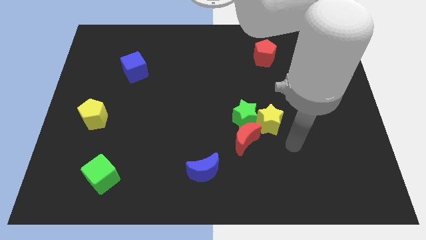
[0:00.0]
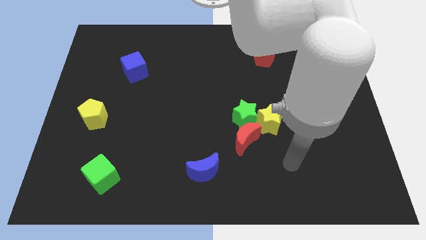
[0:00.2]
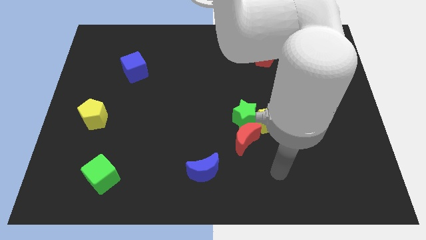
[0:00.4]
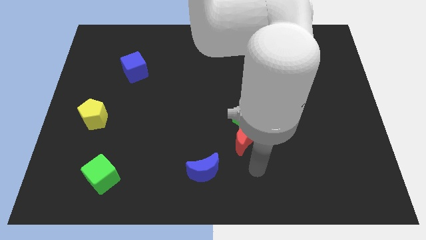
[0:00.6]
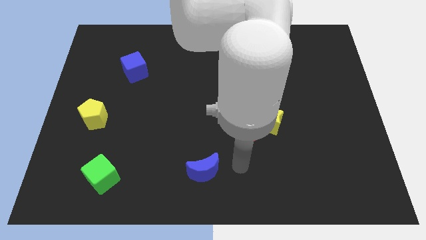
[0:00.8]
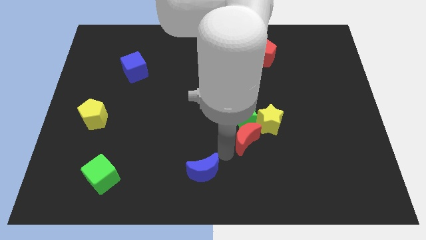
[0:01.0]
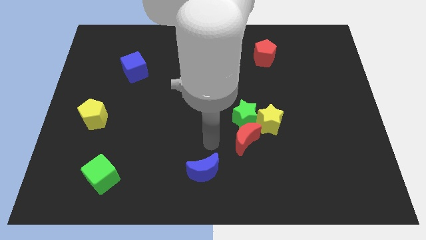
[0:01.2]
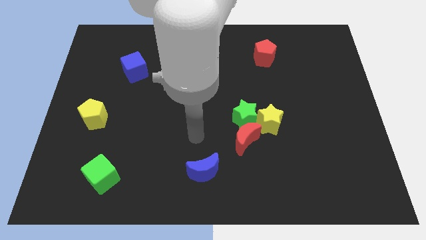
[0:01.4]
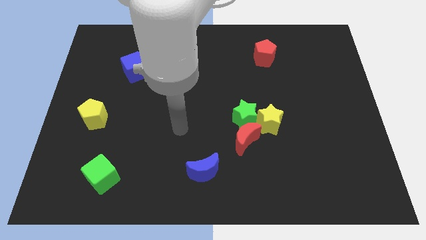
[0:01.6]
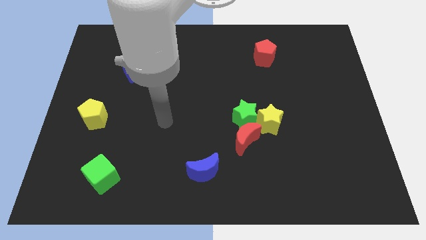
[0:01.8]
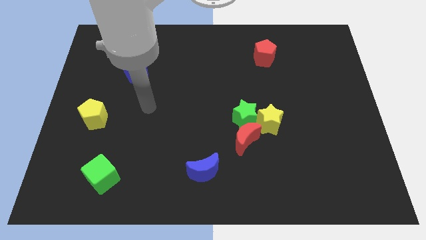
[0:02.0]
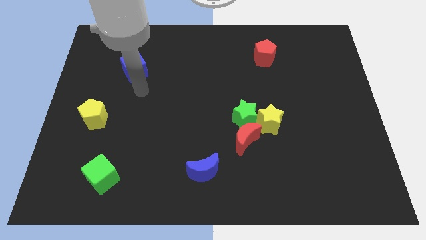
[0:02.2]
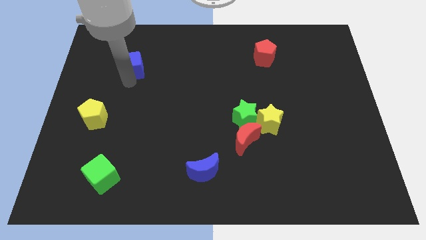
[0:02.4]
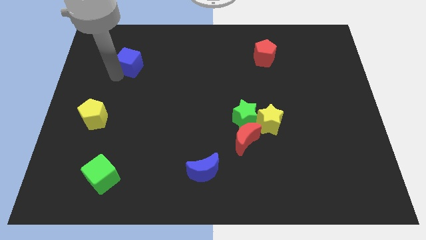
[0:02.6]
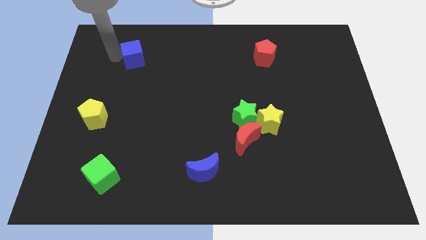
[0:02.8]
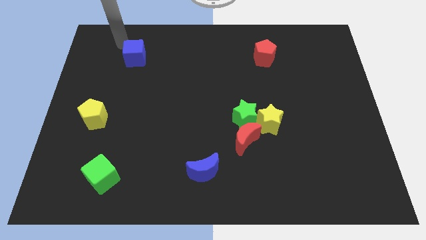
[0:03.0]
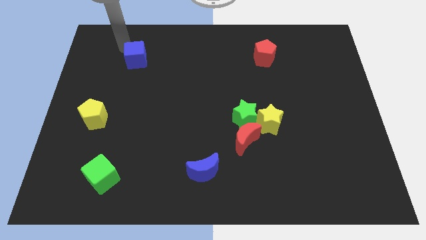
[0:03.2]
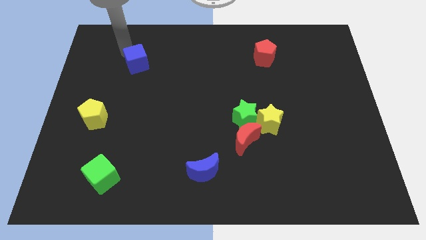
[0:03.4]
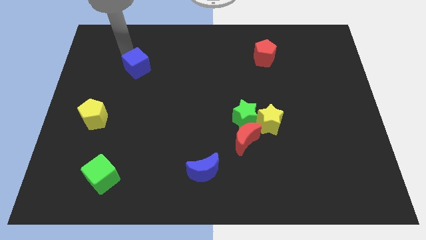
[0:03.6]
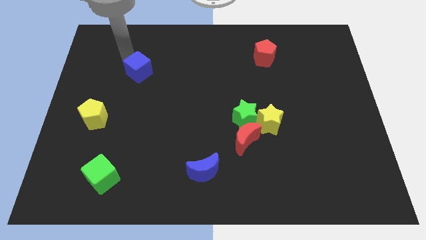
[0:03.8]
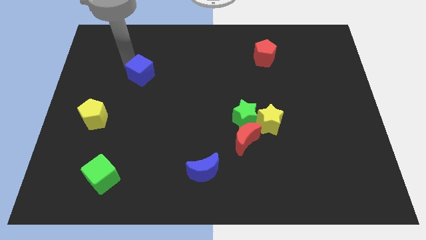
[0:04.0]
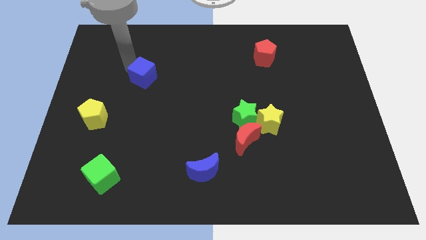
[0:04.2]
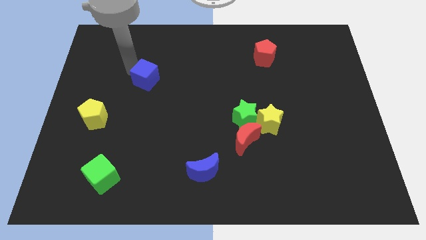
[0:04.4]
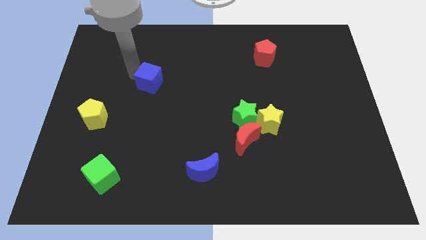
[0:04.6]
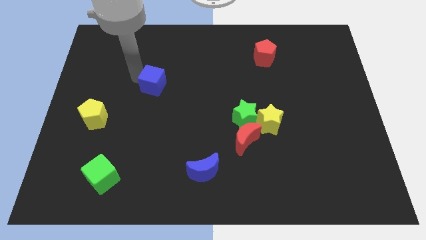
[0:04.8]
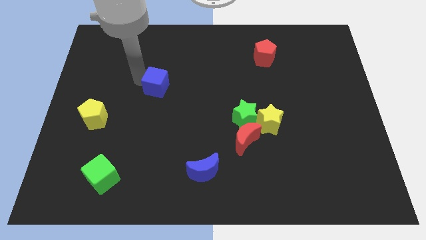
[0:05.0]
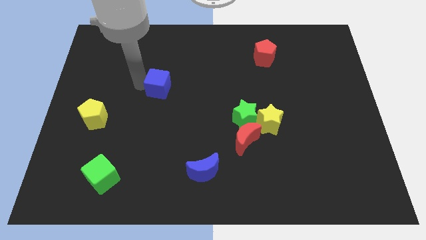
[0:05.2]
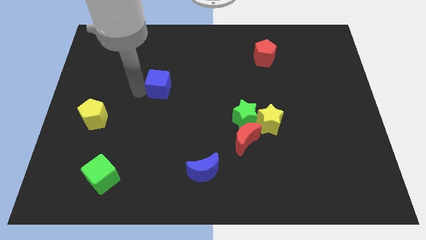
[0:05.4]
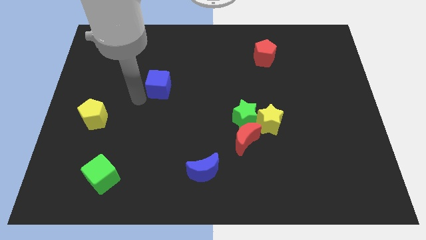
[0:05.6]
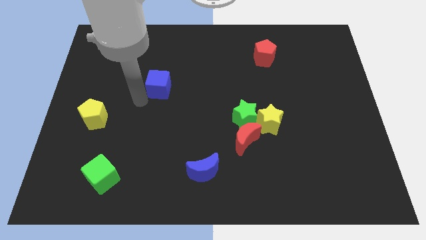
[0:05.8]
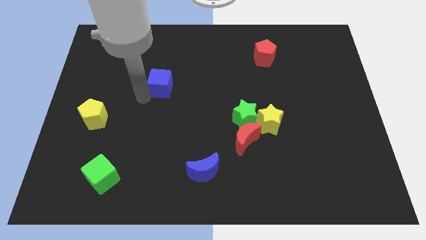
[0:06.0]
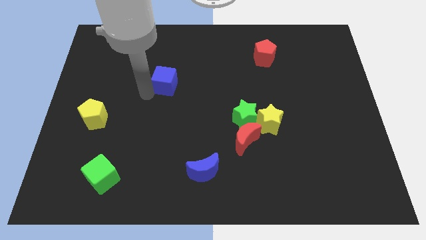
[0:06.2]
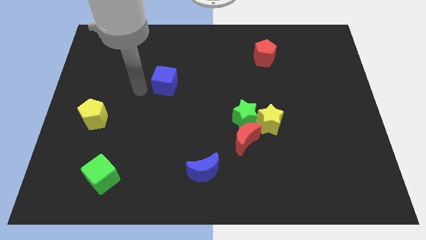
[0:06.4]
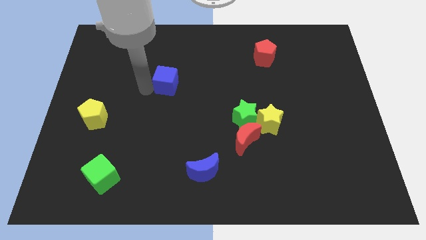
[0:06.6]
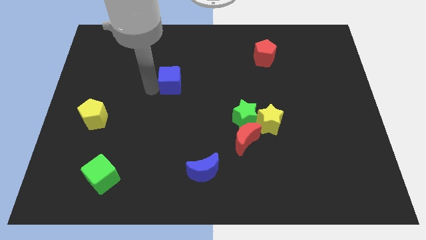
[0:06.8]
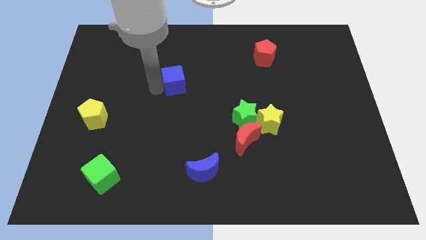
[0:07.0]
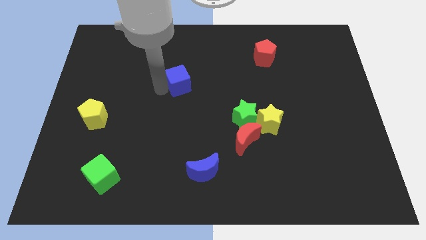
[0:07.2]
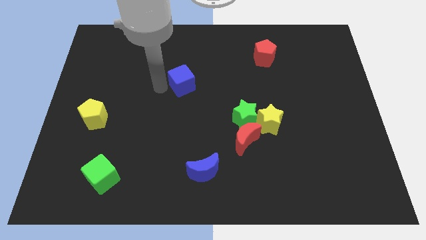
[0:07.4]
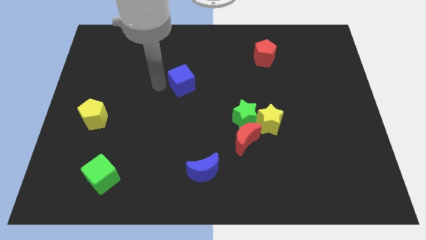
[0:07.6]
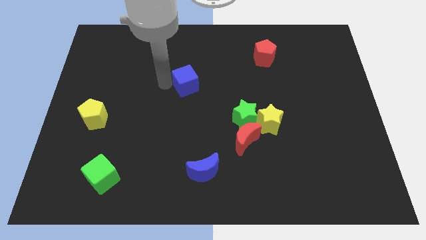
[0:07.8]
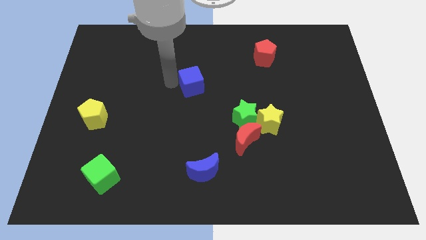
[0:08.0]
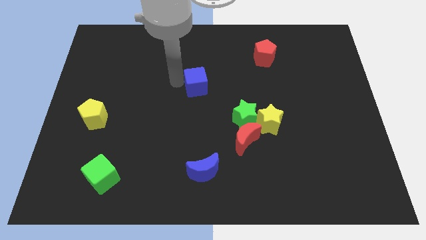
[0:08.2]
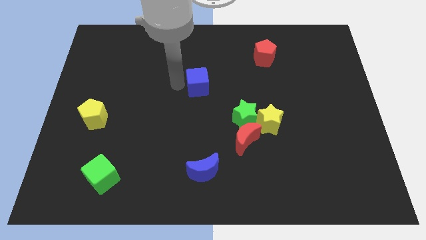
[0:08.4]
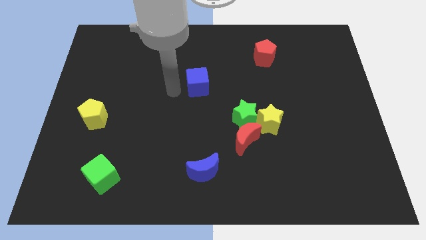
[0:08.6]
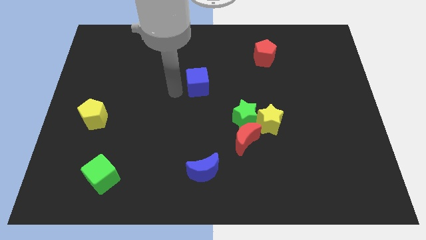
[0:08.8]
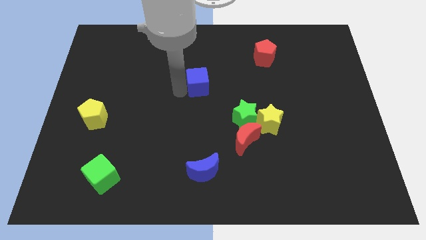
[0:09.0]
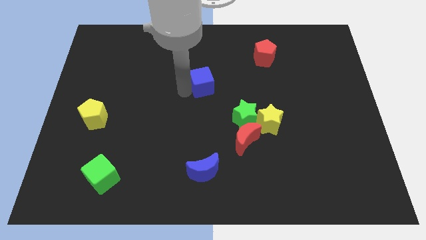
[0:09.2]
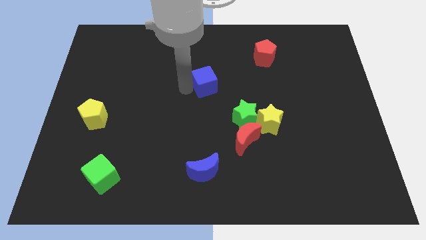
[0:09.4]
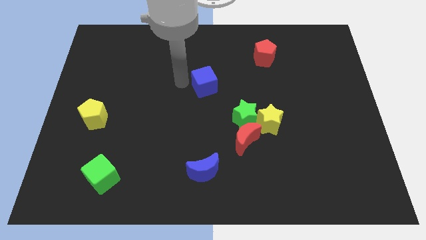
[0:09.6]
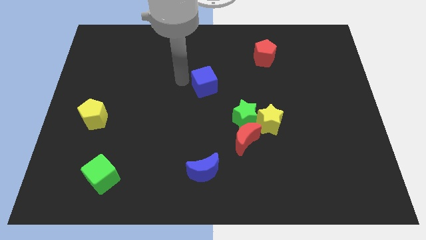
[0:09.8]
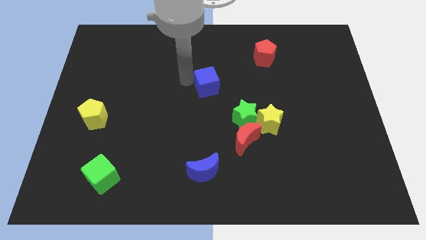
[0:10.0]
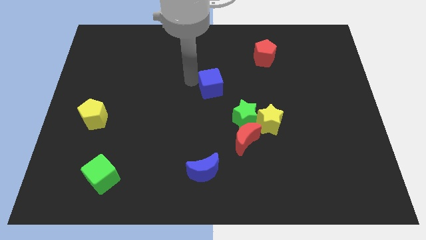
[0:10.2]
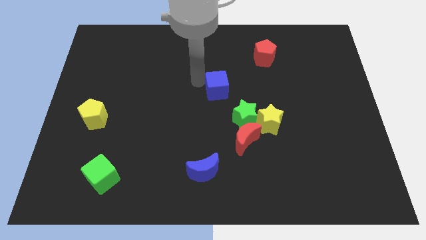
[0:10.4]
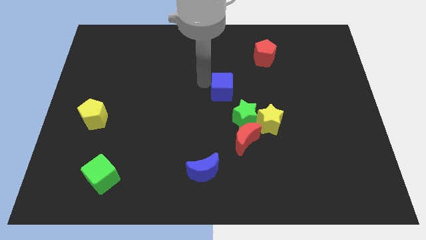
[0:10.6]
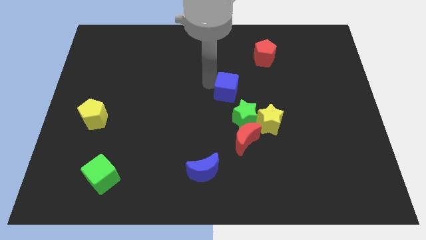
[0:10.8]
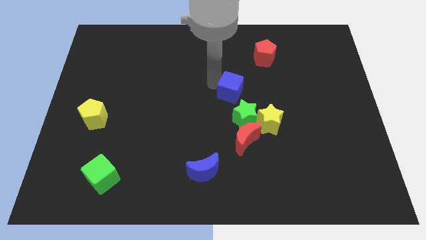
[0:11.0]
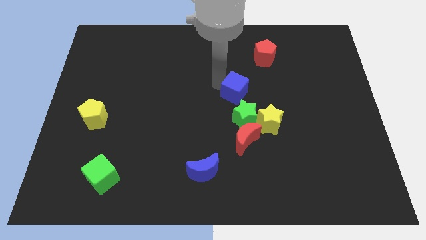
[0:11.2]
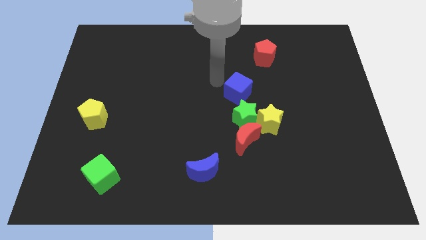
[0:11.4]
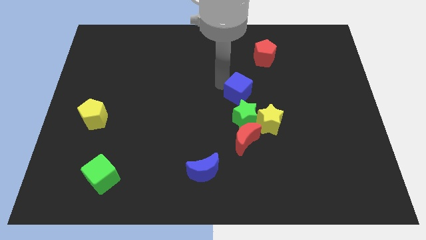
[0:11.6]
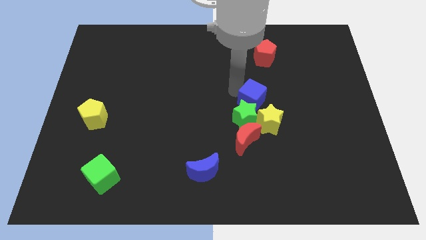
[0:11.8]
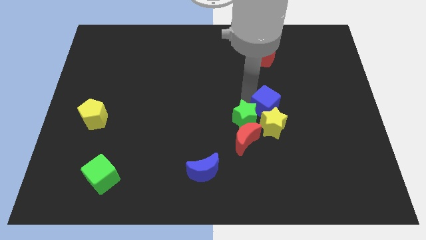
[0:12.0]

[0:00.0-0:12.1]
slide the blue cube right of the green star
